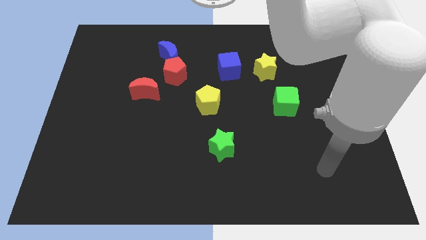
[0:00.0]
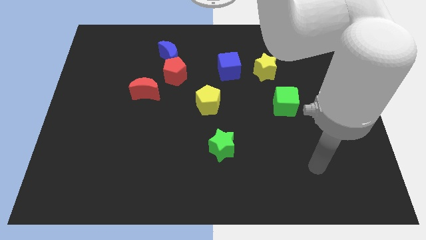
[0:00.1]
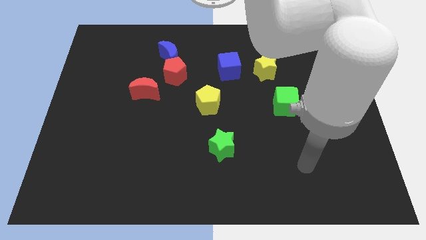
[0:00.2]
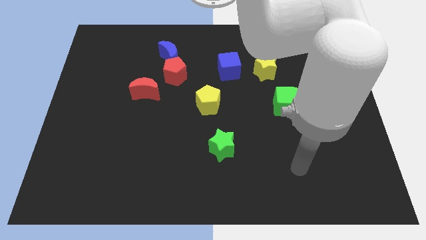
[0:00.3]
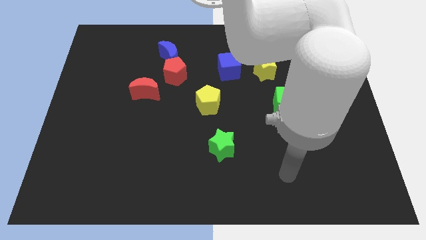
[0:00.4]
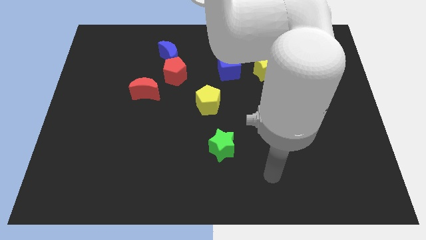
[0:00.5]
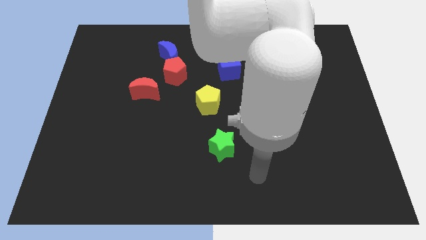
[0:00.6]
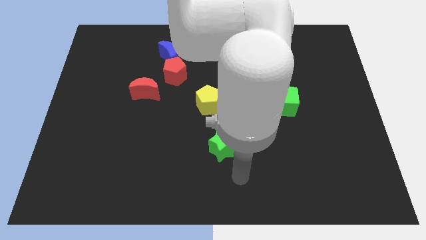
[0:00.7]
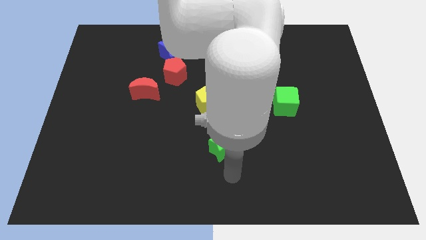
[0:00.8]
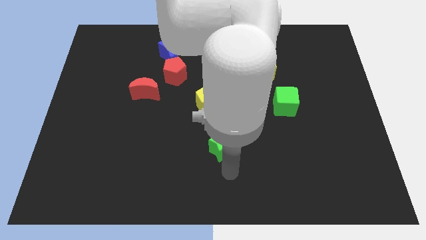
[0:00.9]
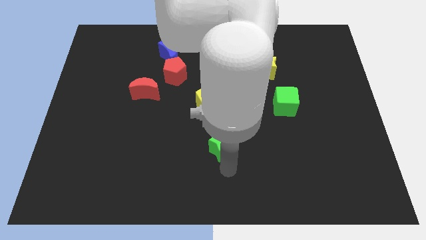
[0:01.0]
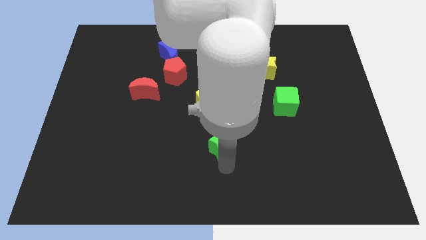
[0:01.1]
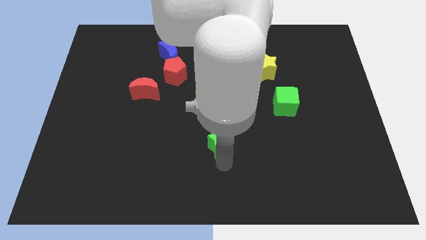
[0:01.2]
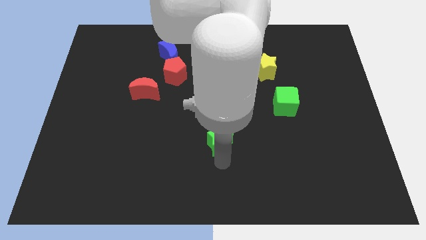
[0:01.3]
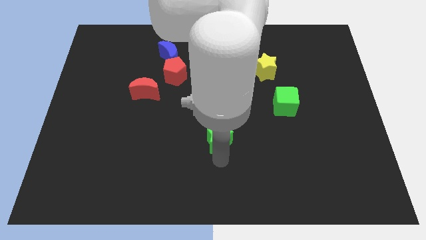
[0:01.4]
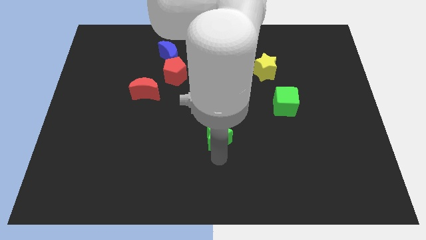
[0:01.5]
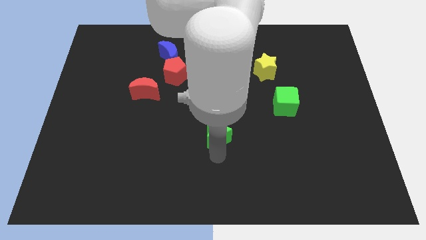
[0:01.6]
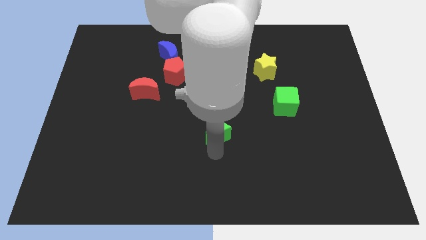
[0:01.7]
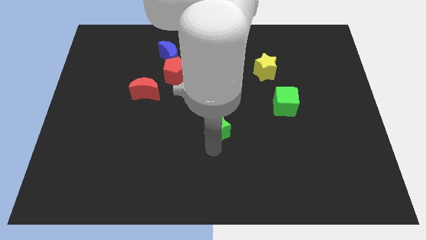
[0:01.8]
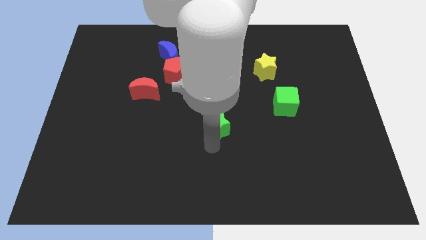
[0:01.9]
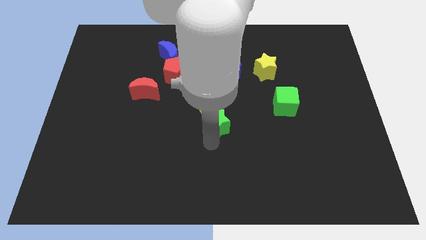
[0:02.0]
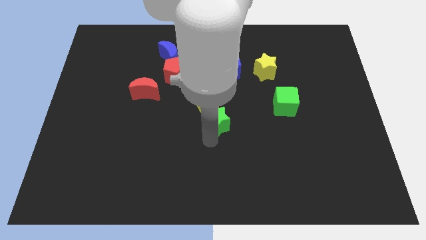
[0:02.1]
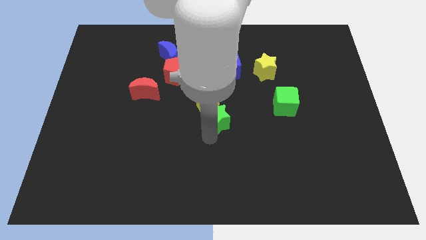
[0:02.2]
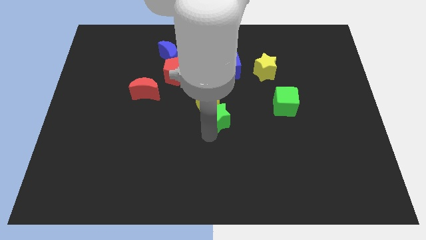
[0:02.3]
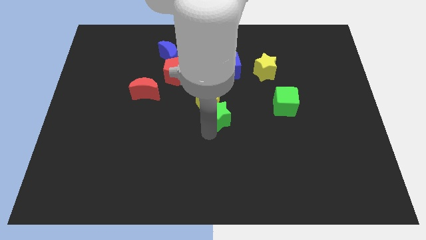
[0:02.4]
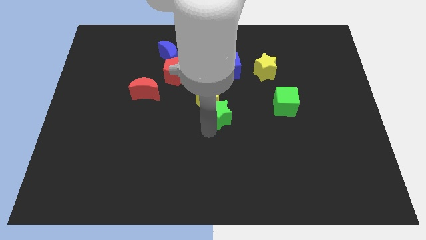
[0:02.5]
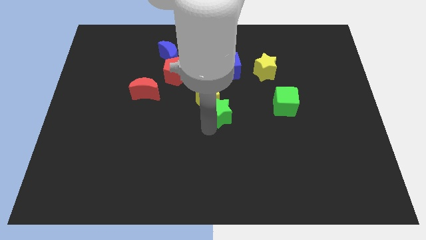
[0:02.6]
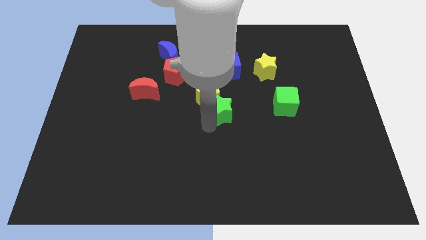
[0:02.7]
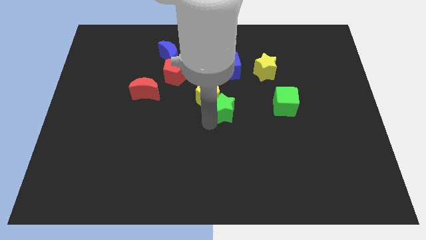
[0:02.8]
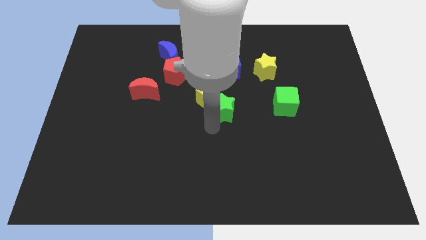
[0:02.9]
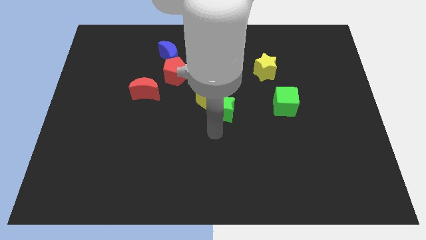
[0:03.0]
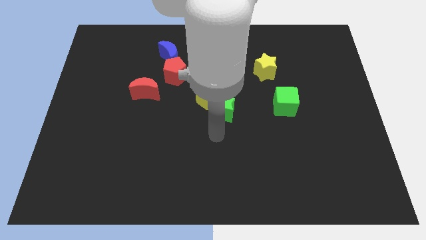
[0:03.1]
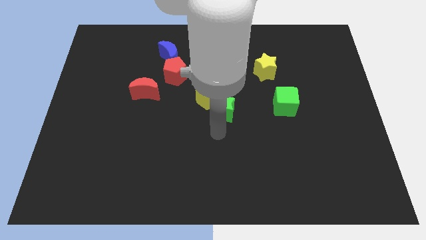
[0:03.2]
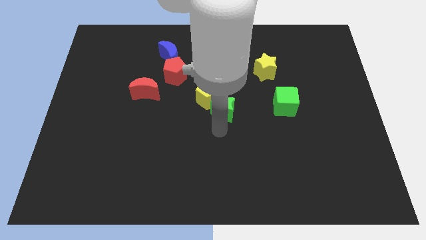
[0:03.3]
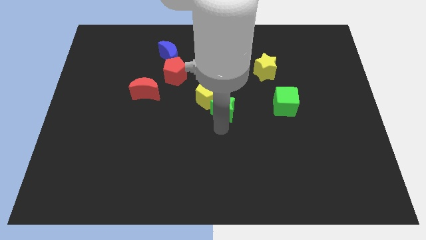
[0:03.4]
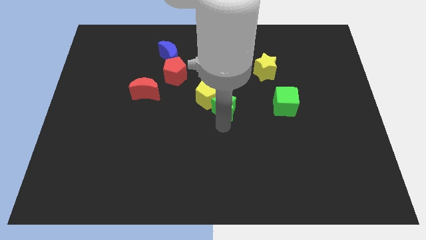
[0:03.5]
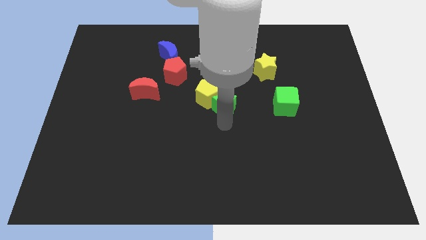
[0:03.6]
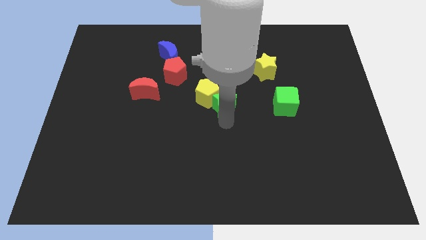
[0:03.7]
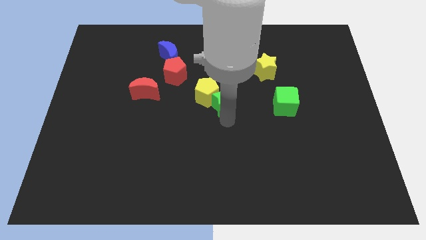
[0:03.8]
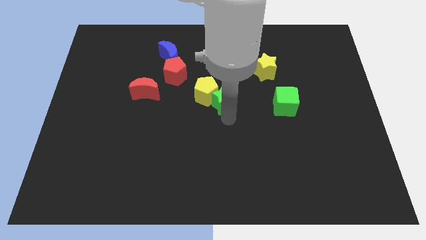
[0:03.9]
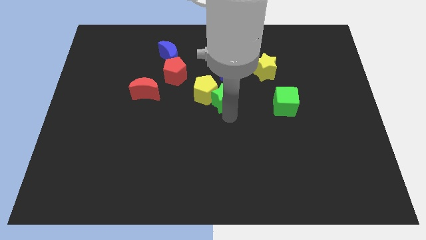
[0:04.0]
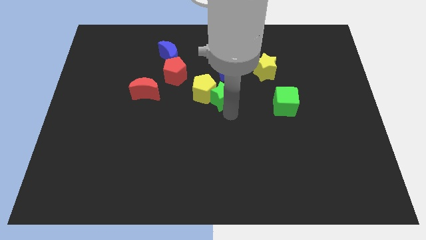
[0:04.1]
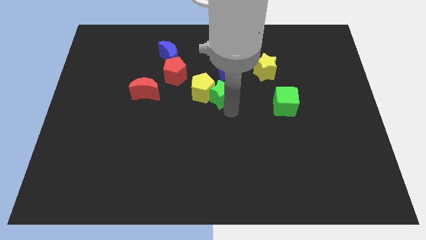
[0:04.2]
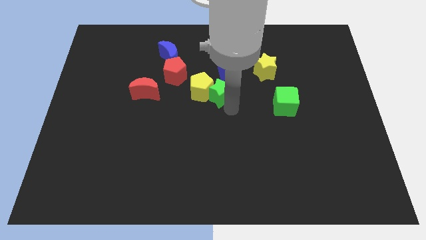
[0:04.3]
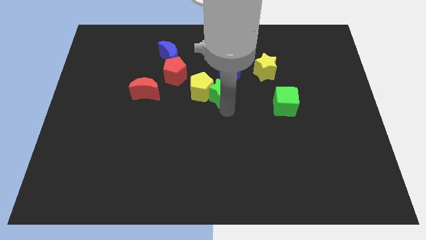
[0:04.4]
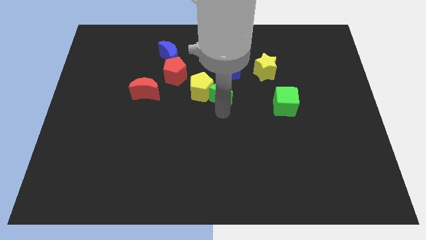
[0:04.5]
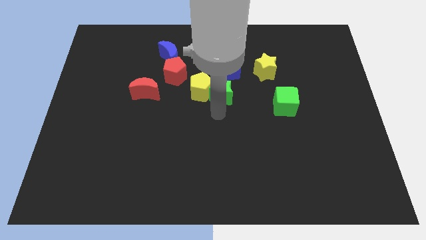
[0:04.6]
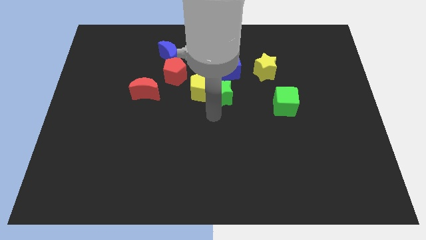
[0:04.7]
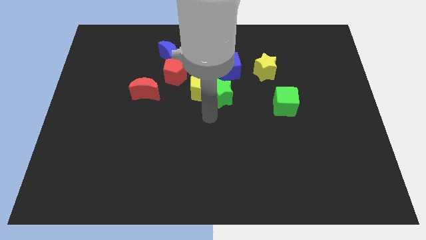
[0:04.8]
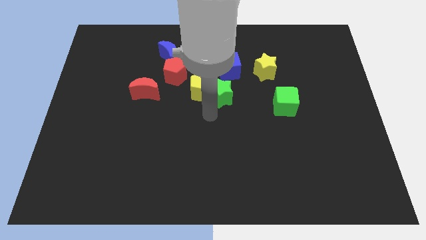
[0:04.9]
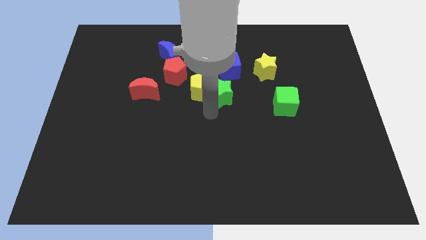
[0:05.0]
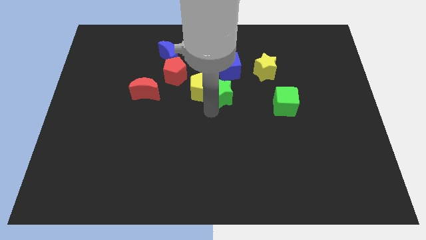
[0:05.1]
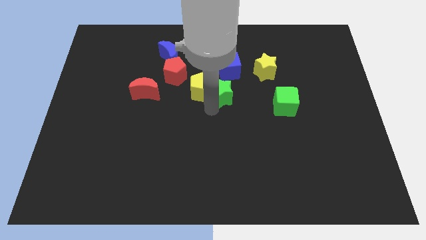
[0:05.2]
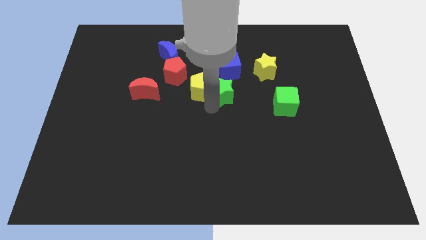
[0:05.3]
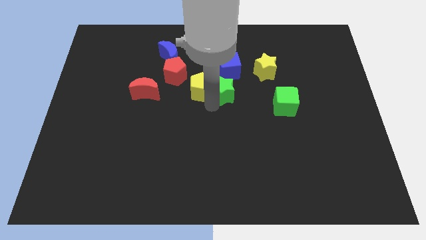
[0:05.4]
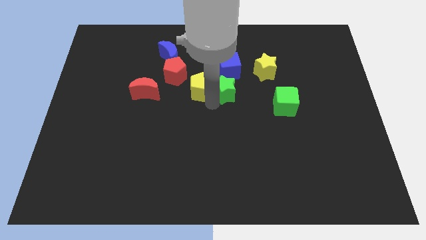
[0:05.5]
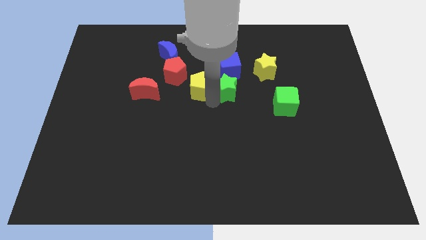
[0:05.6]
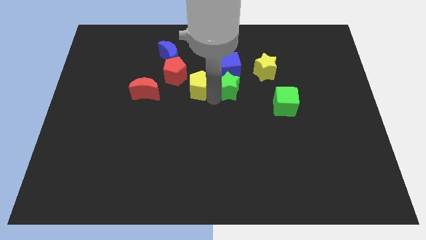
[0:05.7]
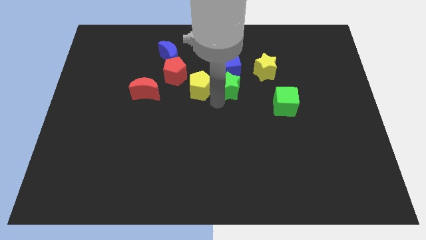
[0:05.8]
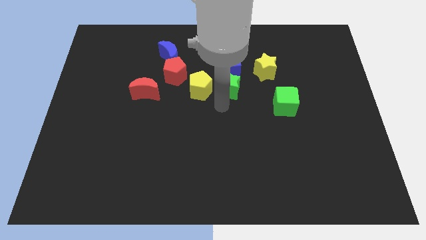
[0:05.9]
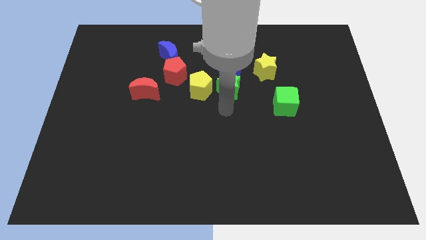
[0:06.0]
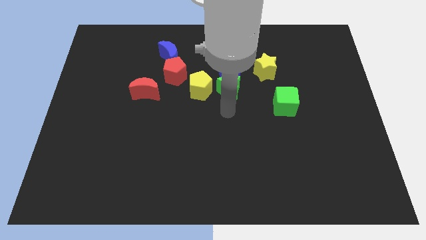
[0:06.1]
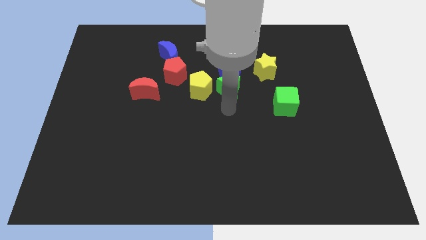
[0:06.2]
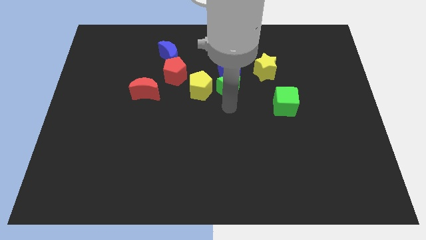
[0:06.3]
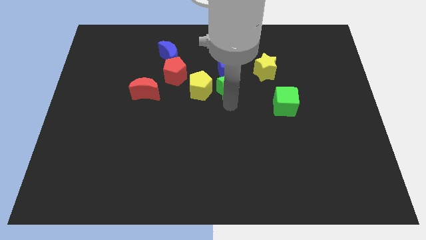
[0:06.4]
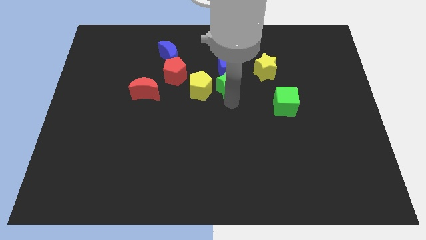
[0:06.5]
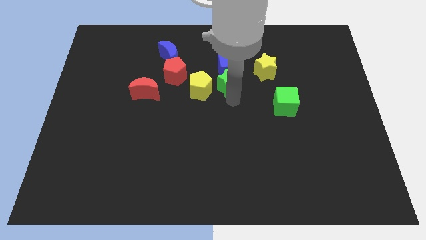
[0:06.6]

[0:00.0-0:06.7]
put the green star to the blue cube
